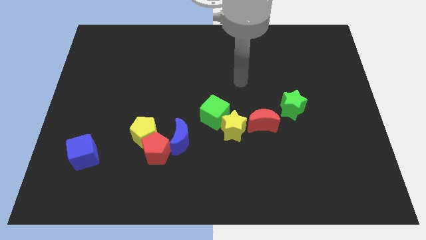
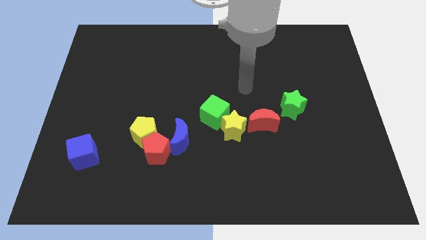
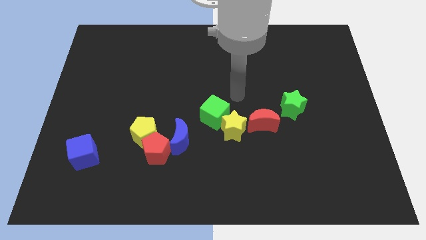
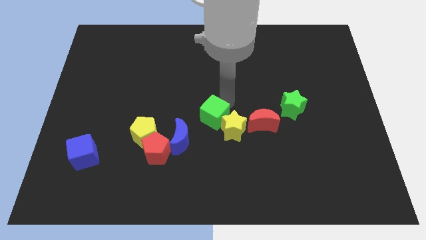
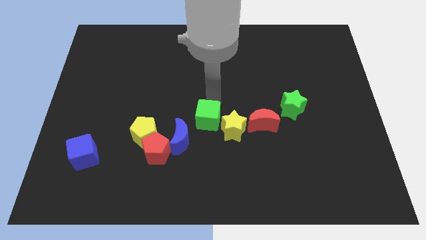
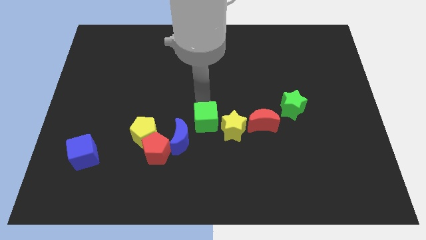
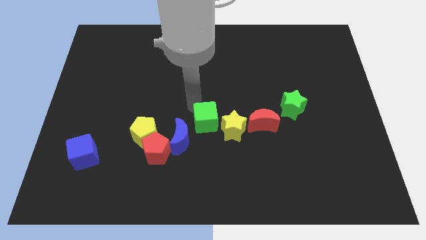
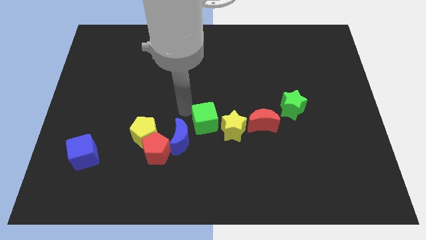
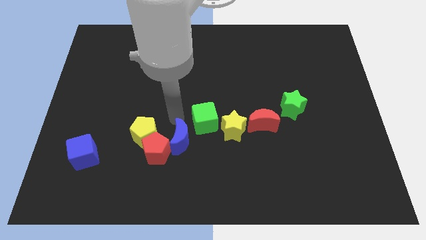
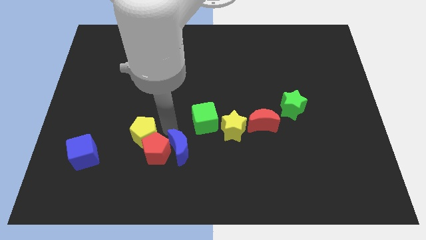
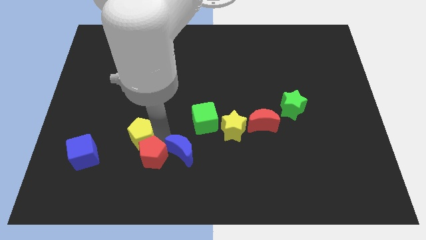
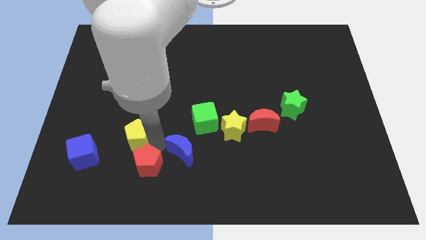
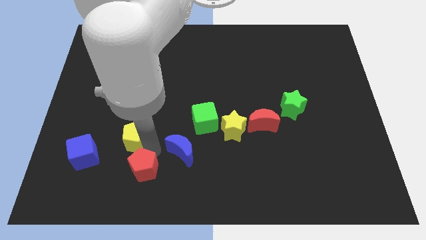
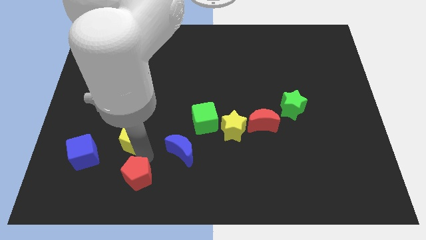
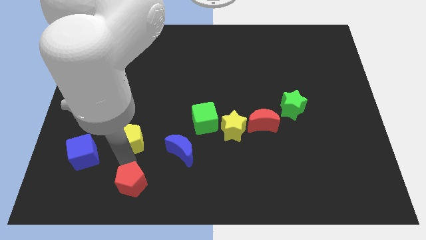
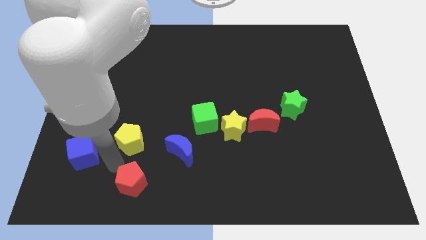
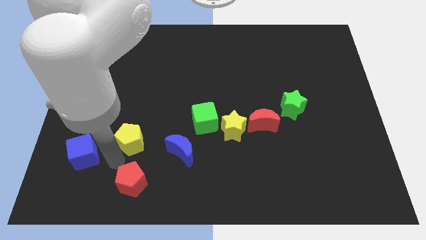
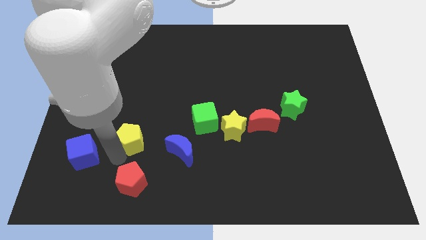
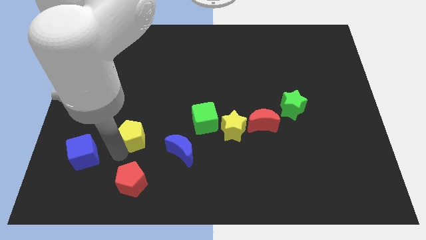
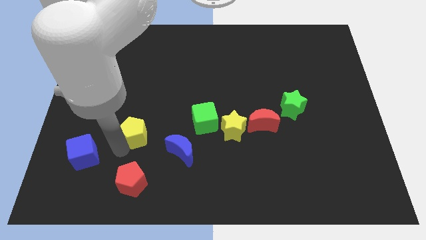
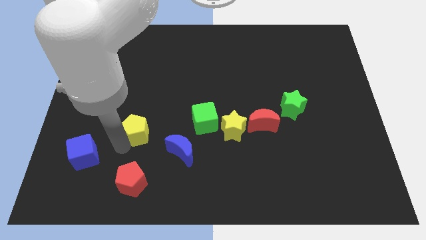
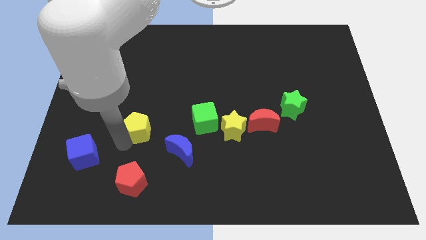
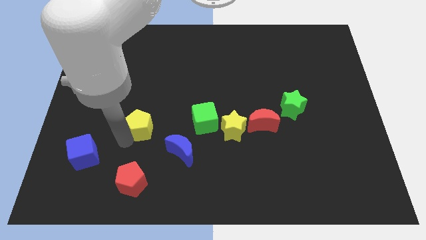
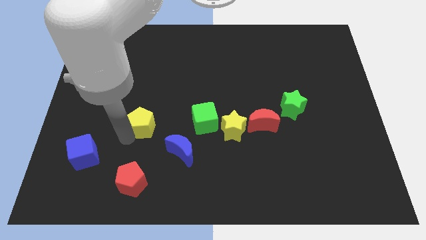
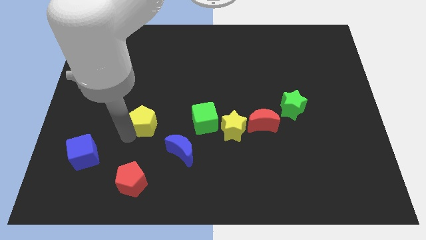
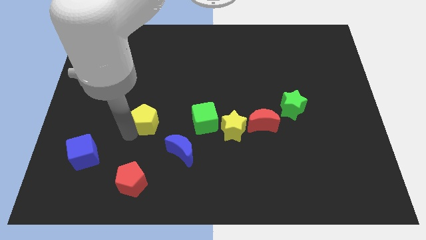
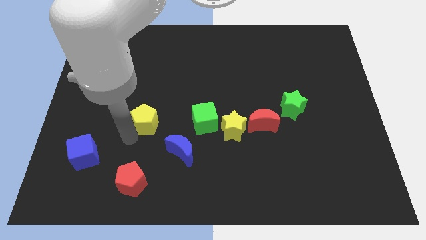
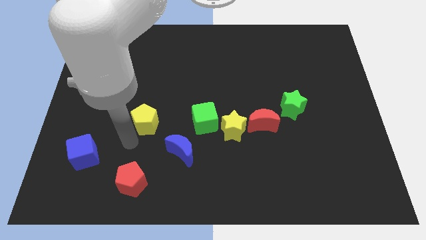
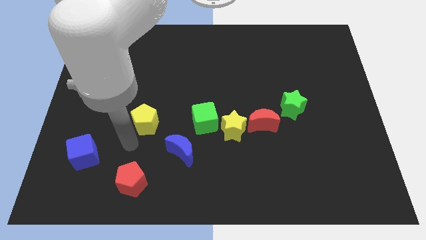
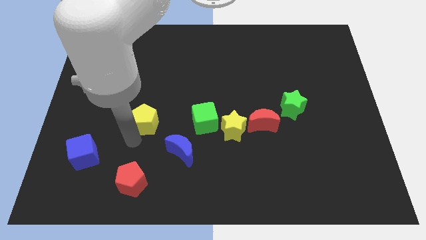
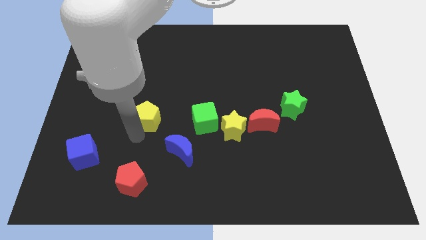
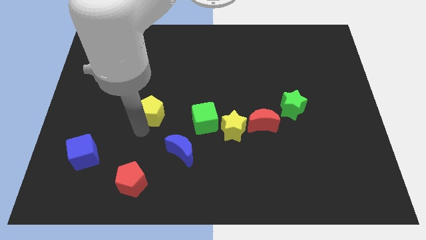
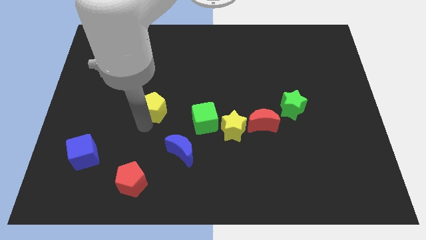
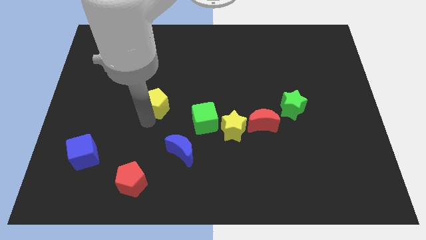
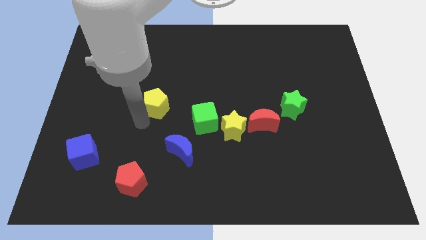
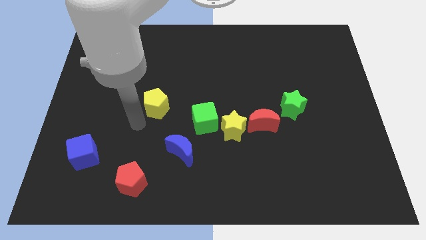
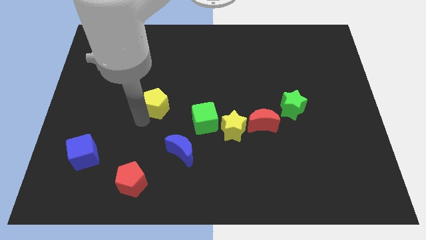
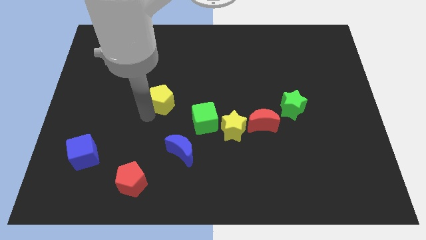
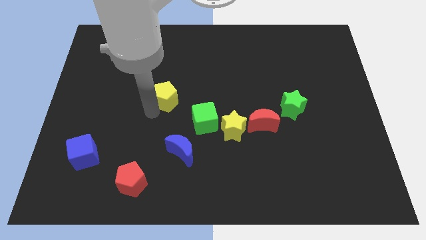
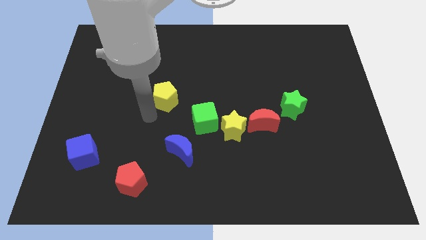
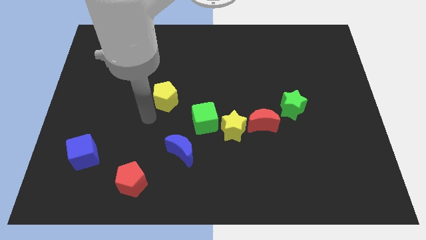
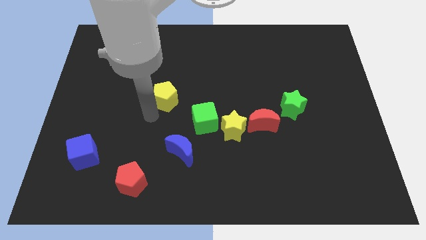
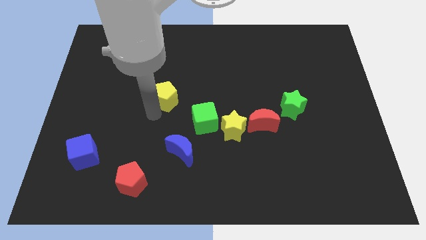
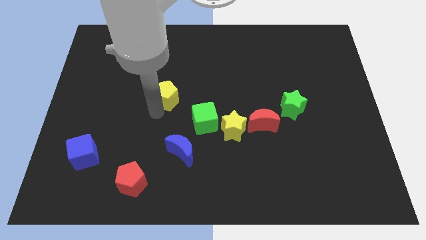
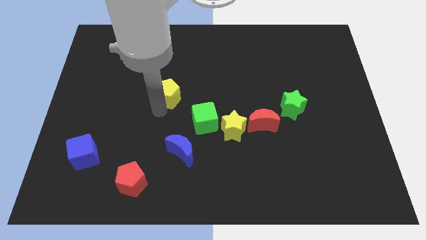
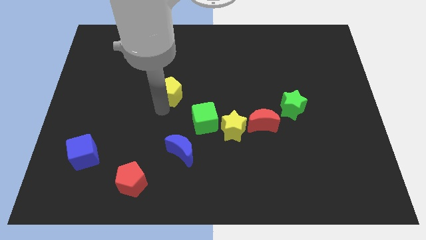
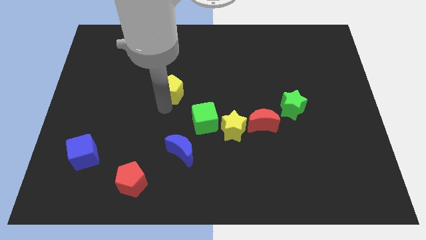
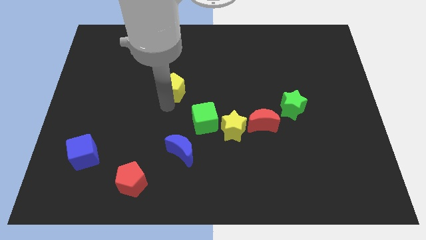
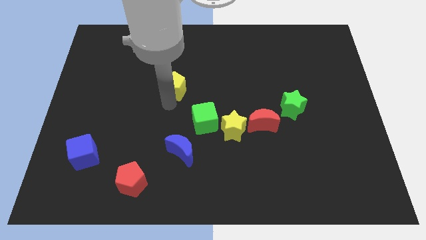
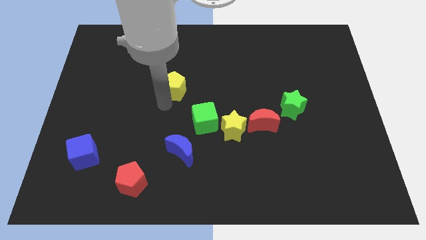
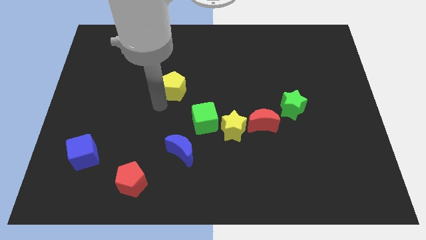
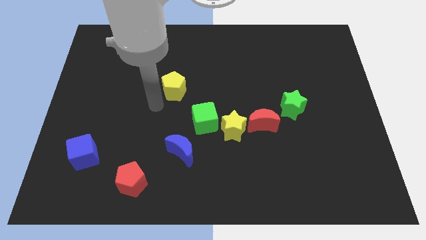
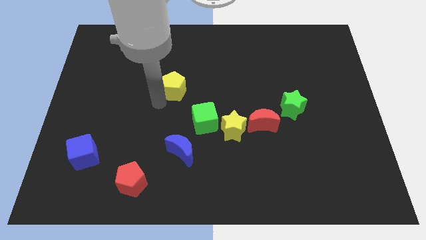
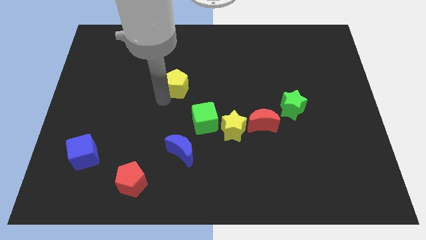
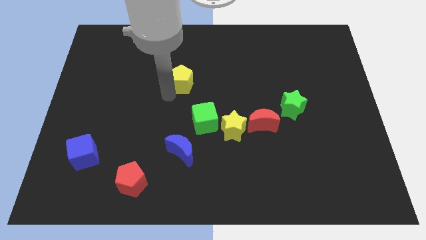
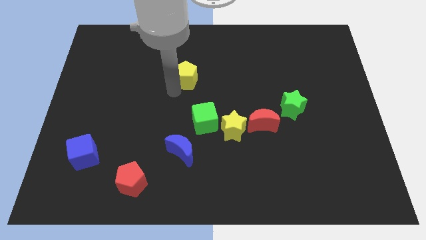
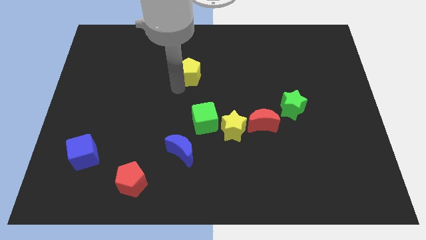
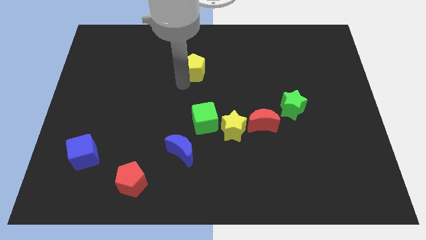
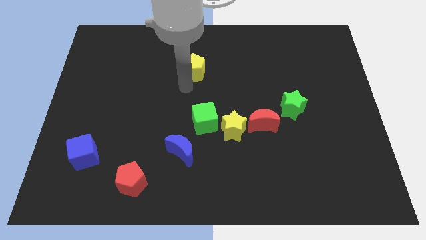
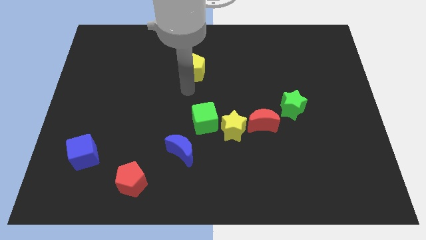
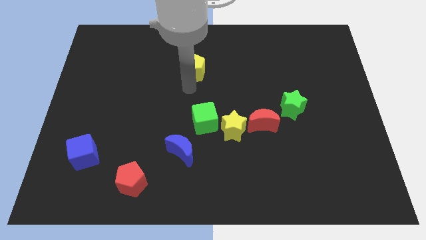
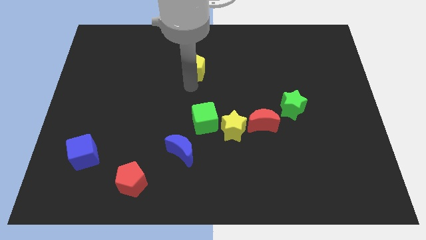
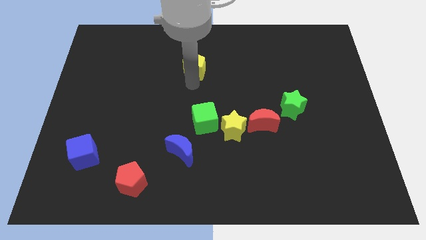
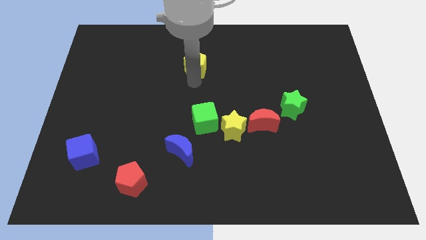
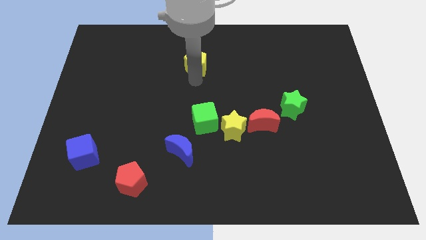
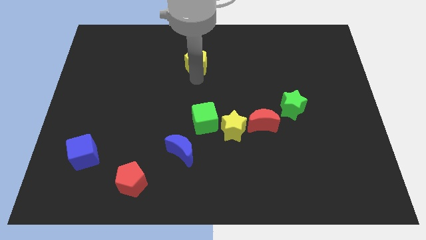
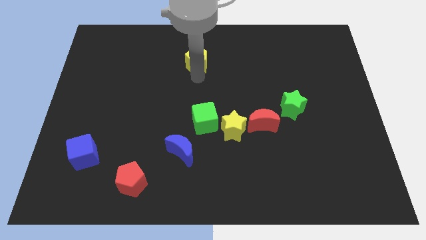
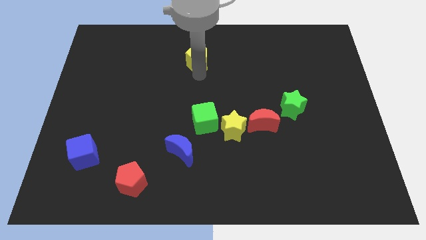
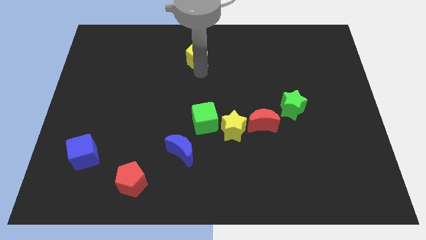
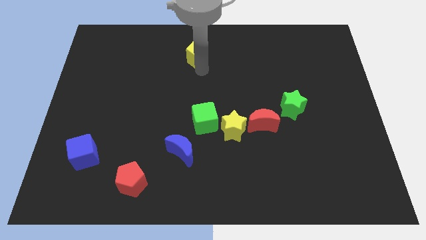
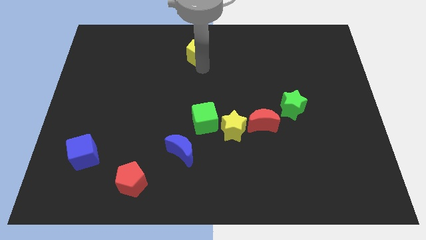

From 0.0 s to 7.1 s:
put the yellow pentagon to the top
